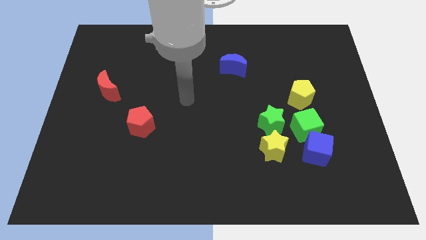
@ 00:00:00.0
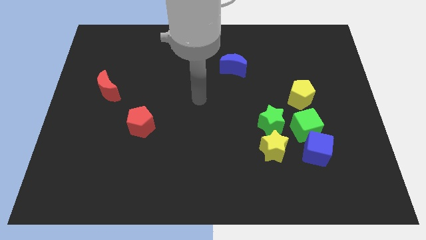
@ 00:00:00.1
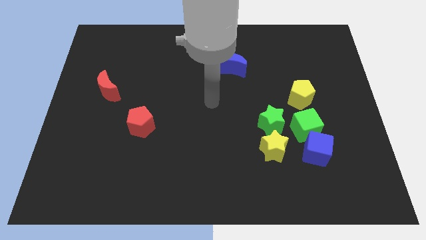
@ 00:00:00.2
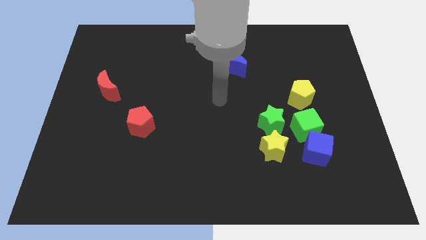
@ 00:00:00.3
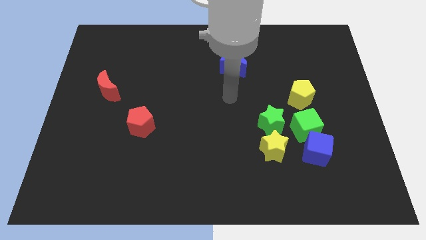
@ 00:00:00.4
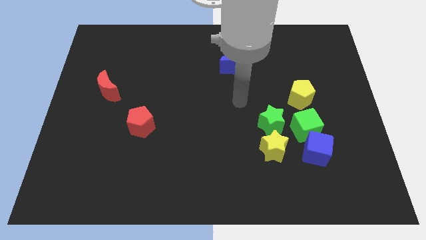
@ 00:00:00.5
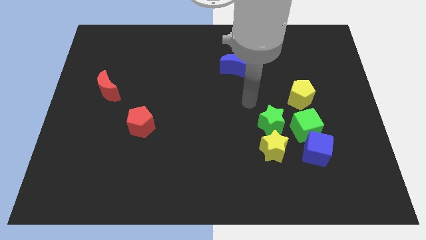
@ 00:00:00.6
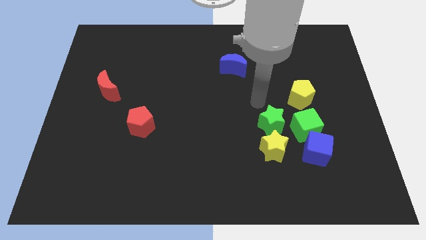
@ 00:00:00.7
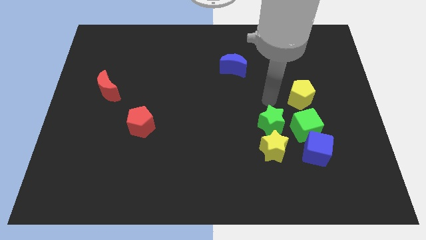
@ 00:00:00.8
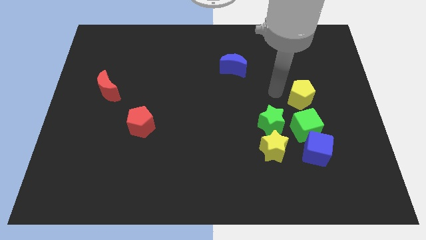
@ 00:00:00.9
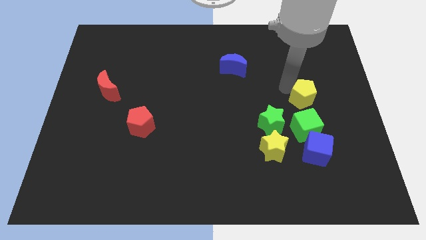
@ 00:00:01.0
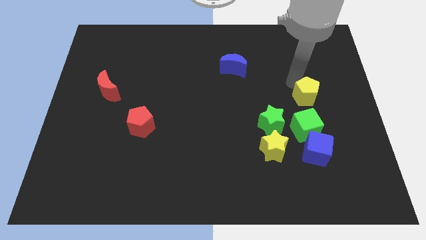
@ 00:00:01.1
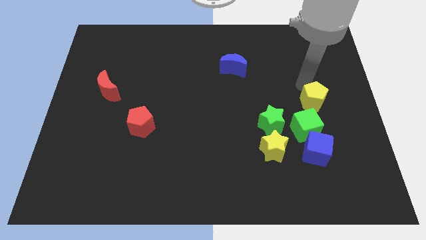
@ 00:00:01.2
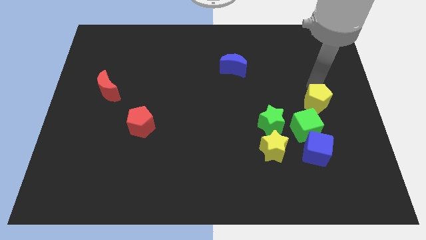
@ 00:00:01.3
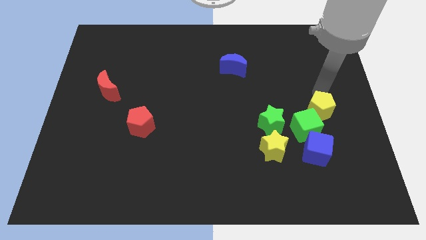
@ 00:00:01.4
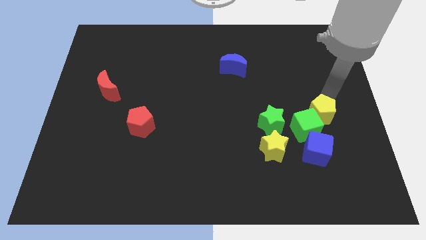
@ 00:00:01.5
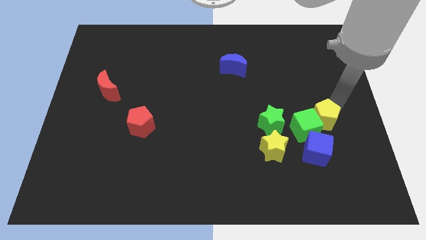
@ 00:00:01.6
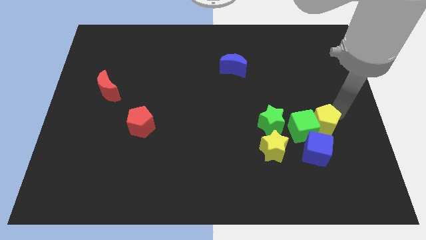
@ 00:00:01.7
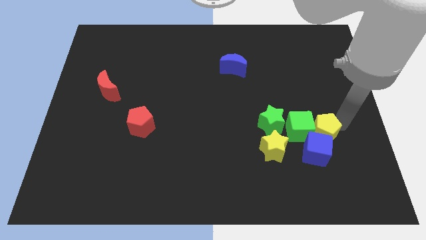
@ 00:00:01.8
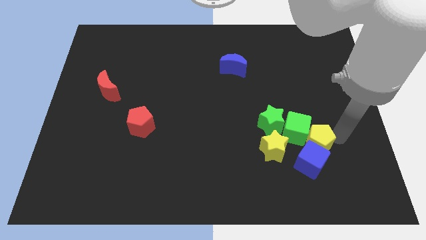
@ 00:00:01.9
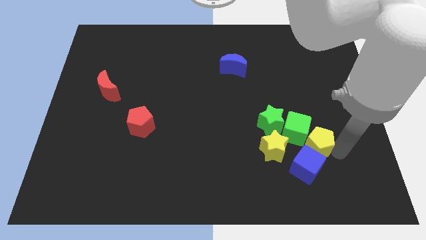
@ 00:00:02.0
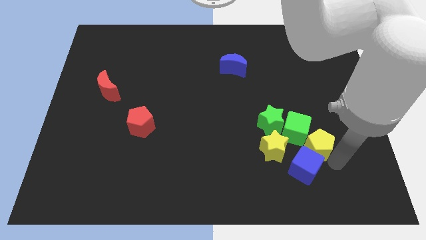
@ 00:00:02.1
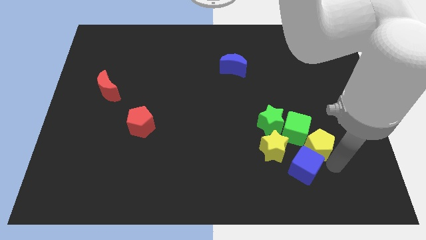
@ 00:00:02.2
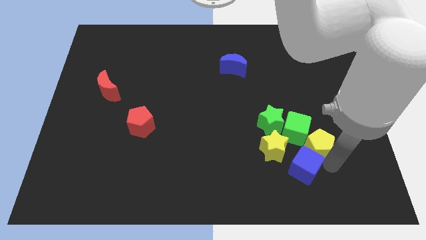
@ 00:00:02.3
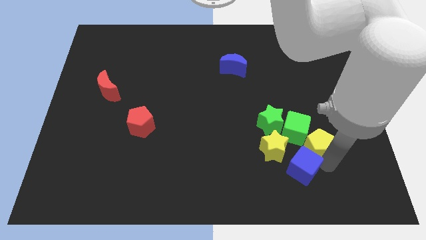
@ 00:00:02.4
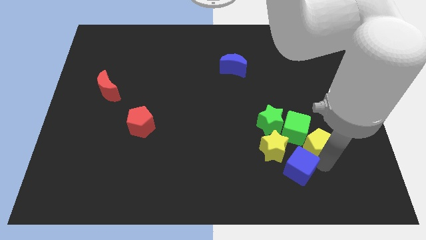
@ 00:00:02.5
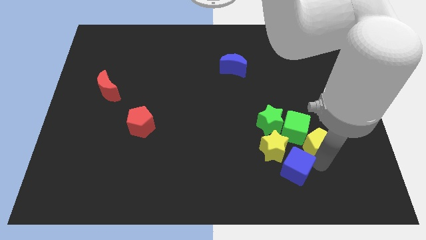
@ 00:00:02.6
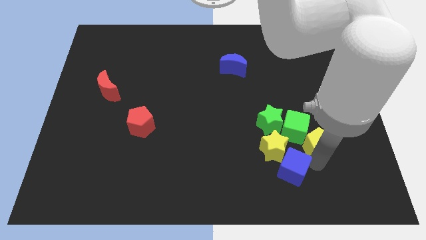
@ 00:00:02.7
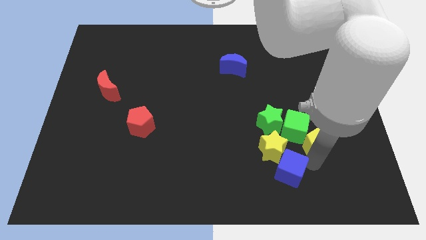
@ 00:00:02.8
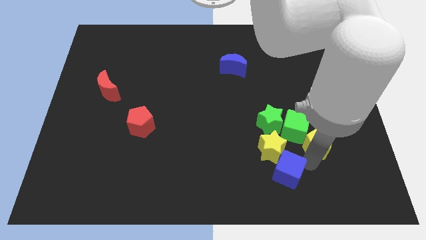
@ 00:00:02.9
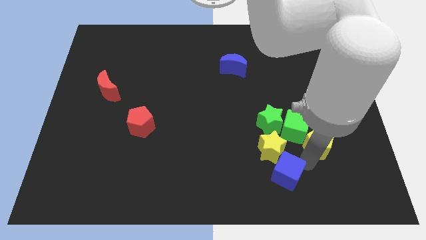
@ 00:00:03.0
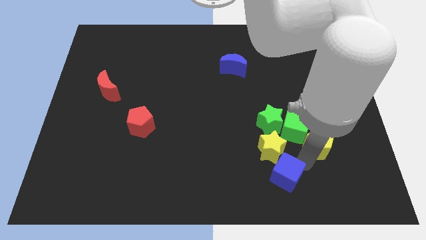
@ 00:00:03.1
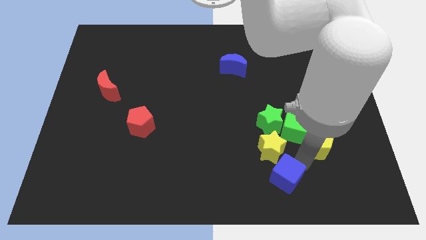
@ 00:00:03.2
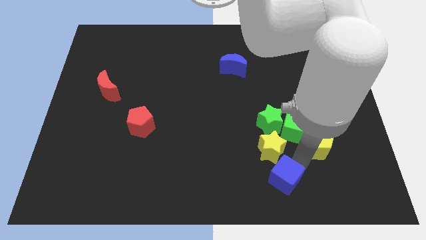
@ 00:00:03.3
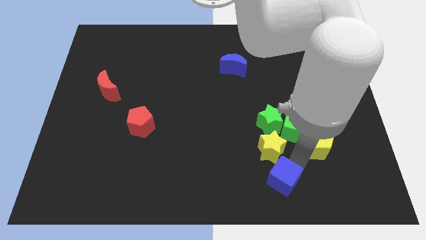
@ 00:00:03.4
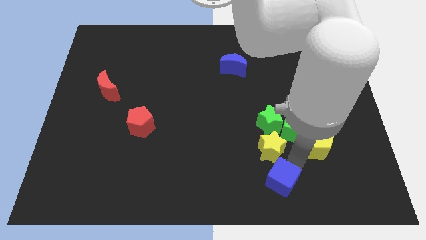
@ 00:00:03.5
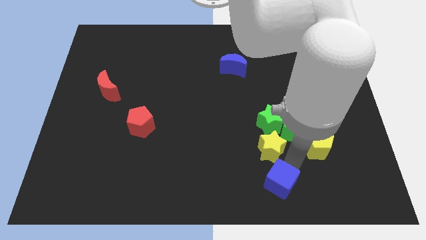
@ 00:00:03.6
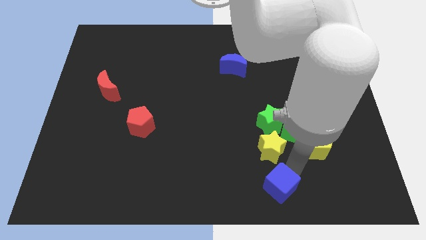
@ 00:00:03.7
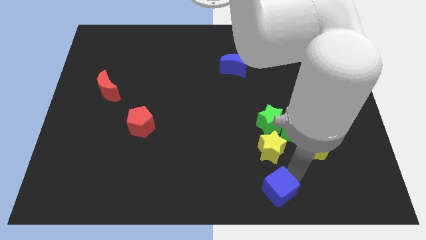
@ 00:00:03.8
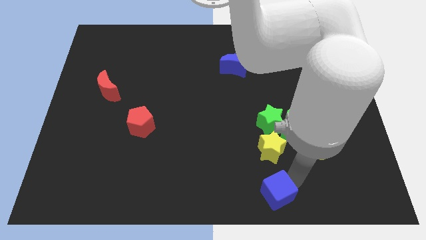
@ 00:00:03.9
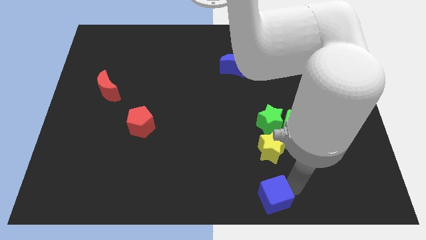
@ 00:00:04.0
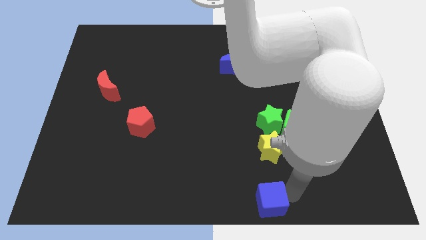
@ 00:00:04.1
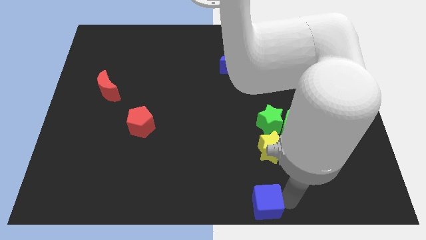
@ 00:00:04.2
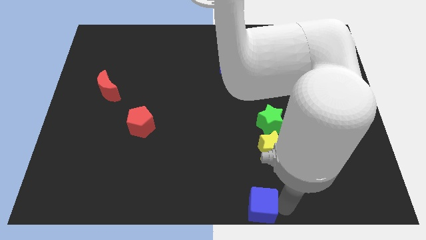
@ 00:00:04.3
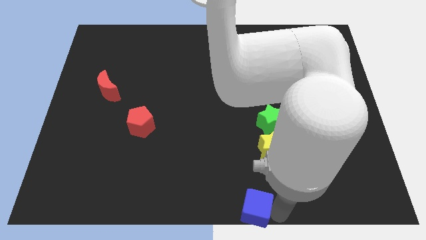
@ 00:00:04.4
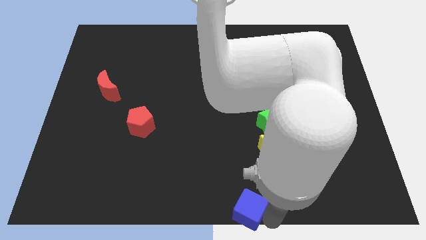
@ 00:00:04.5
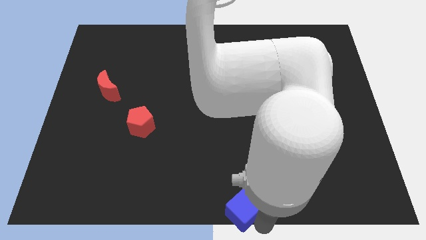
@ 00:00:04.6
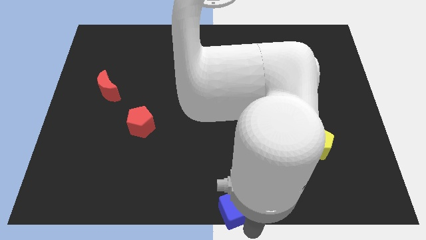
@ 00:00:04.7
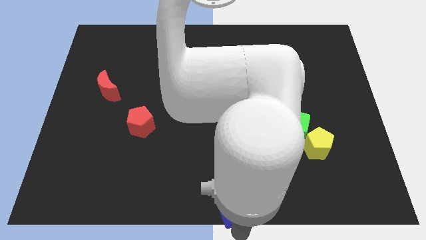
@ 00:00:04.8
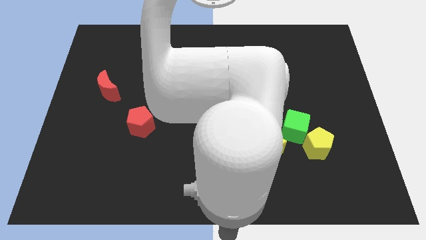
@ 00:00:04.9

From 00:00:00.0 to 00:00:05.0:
slide the blue cube left a little bit

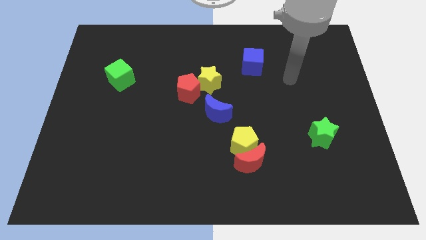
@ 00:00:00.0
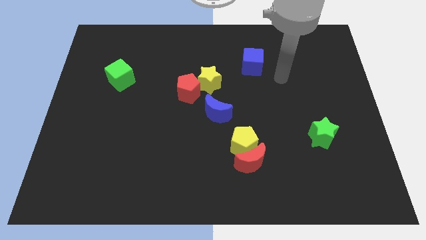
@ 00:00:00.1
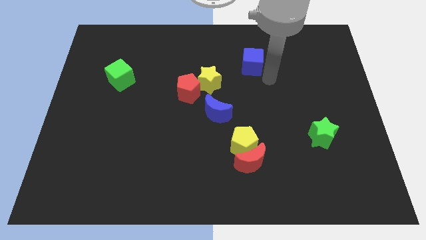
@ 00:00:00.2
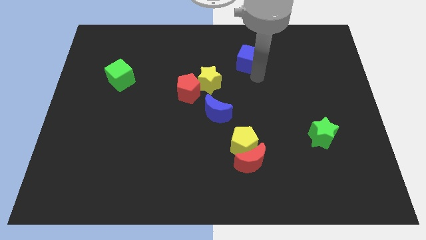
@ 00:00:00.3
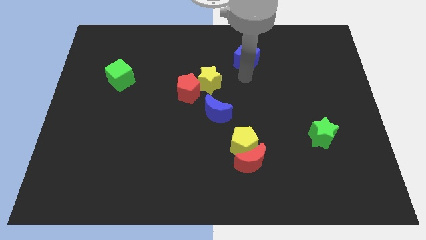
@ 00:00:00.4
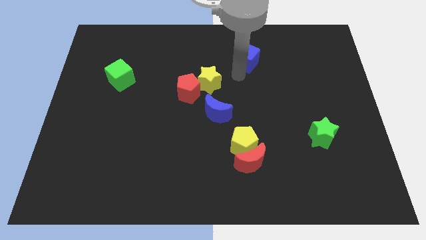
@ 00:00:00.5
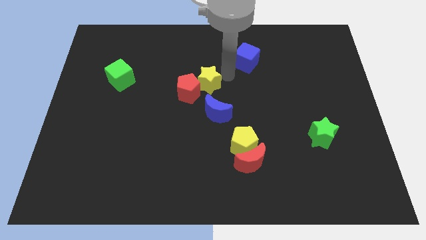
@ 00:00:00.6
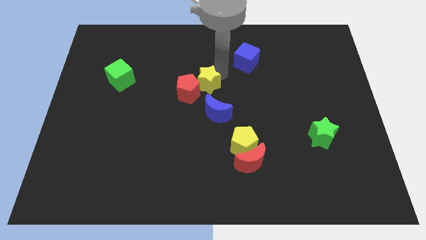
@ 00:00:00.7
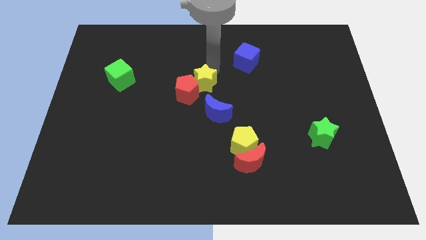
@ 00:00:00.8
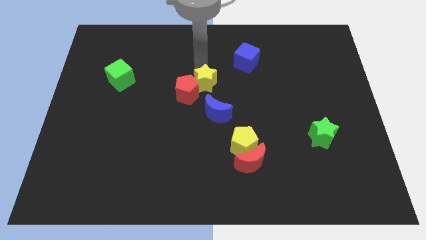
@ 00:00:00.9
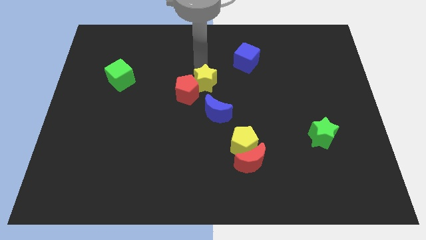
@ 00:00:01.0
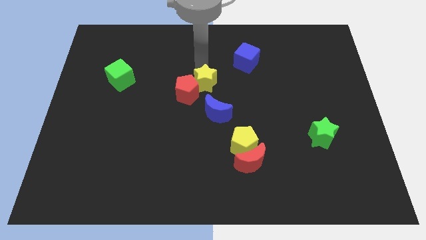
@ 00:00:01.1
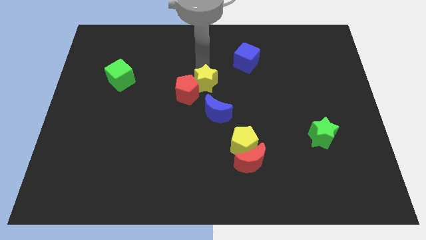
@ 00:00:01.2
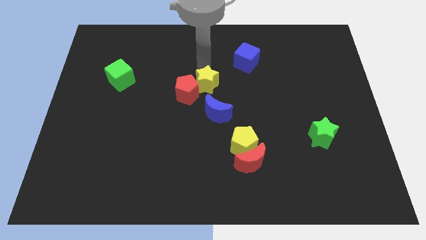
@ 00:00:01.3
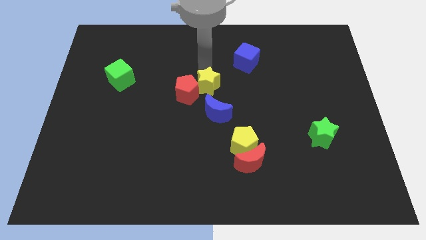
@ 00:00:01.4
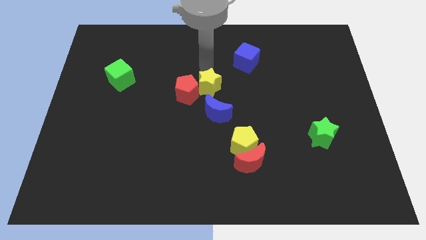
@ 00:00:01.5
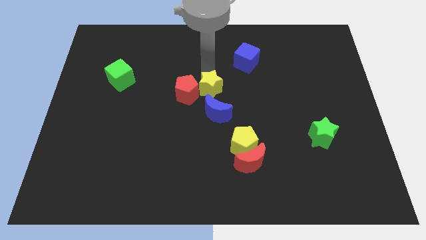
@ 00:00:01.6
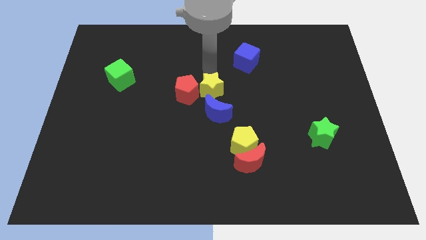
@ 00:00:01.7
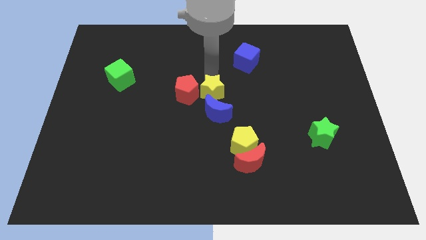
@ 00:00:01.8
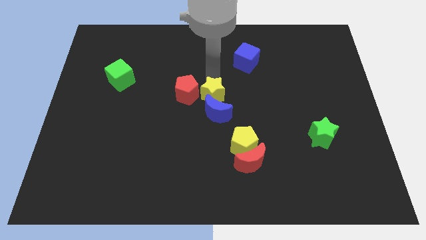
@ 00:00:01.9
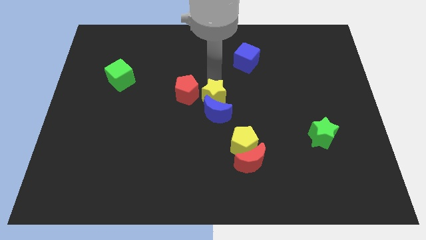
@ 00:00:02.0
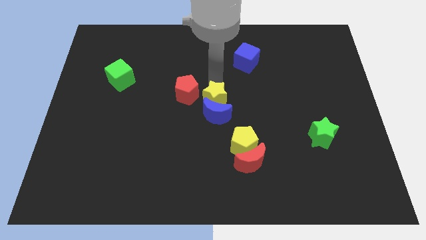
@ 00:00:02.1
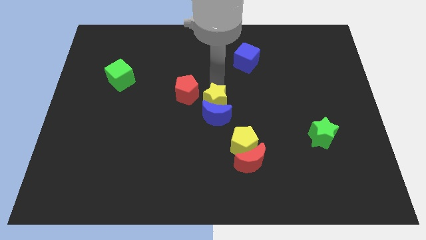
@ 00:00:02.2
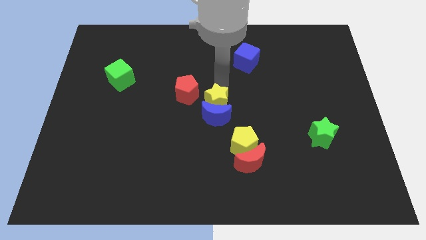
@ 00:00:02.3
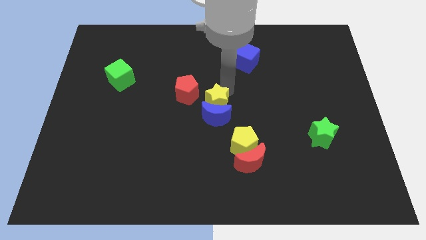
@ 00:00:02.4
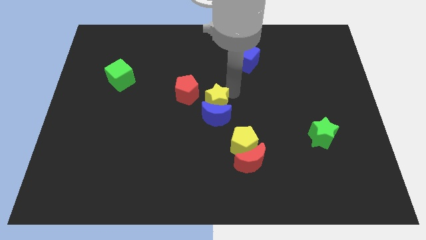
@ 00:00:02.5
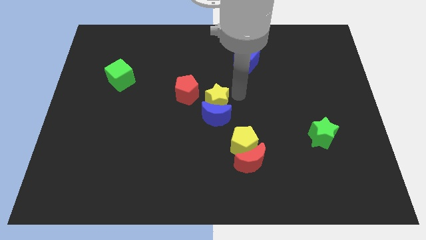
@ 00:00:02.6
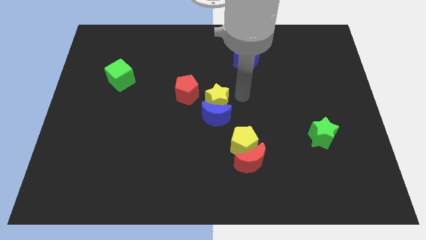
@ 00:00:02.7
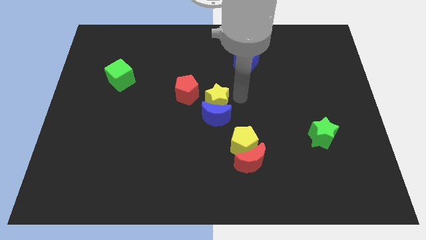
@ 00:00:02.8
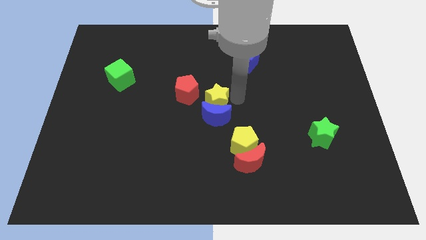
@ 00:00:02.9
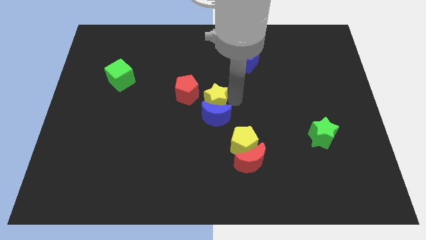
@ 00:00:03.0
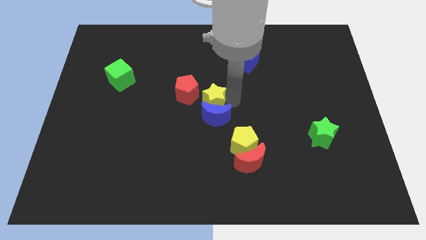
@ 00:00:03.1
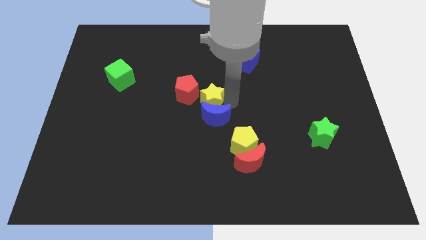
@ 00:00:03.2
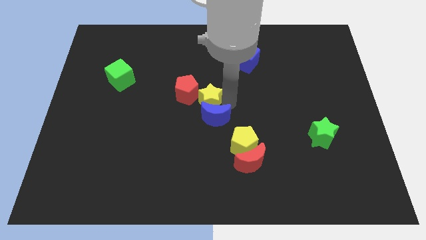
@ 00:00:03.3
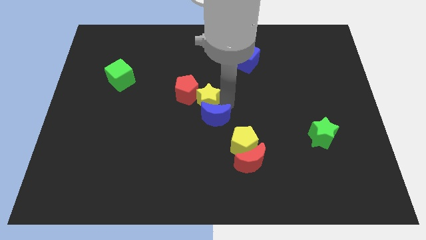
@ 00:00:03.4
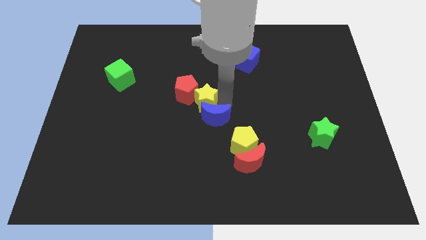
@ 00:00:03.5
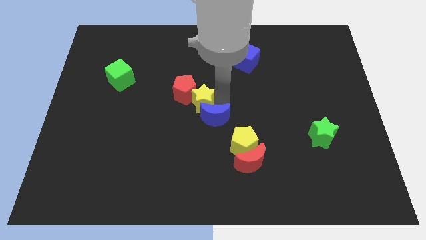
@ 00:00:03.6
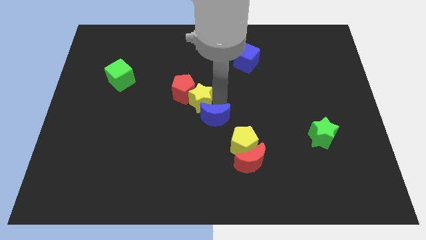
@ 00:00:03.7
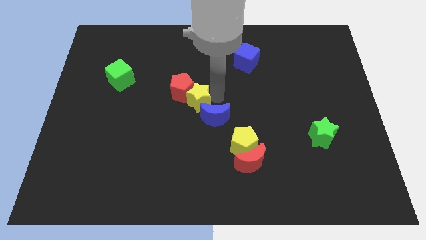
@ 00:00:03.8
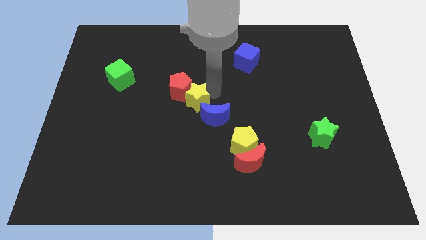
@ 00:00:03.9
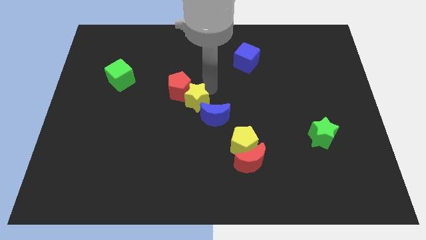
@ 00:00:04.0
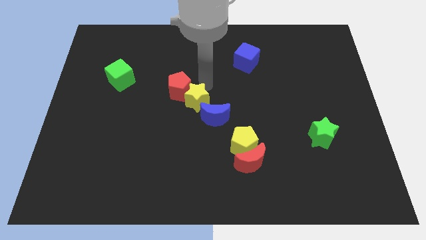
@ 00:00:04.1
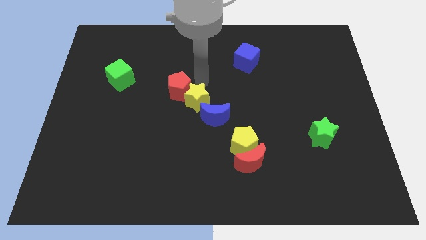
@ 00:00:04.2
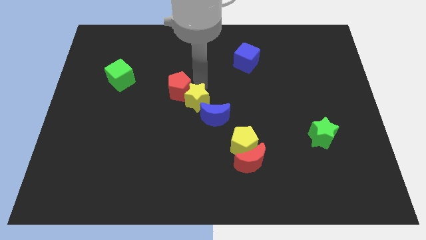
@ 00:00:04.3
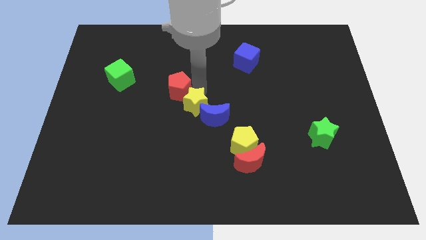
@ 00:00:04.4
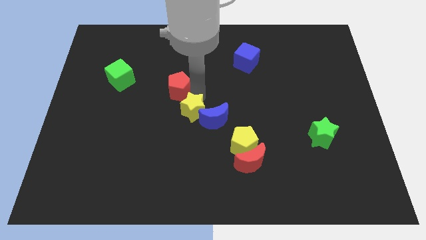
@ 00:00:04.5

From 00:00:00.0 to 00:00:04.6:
slide the yellow star down a little
